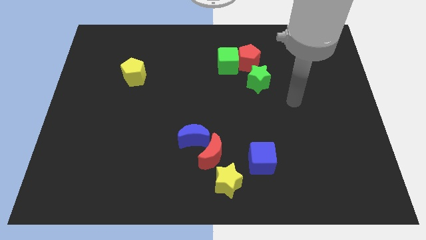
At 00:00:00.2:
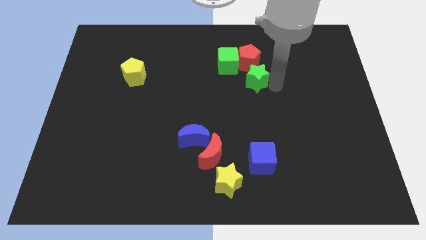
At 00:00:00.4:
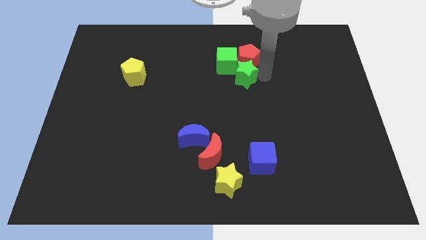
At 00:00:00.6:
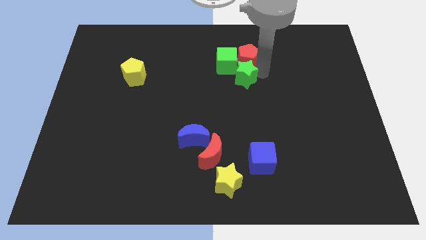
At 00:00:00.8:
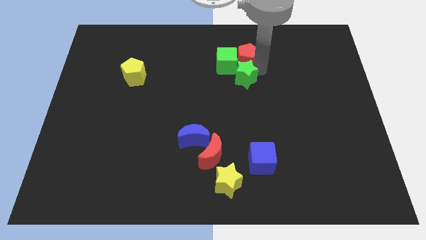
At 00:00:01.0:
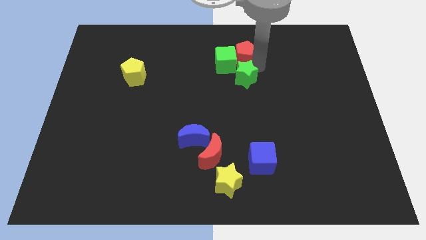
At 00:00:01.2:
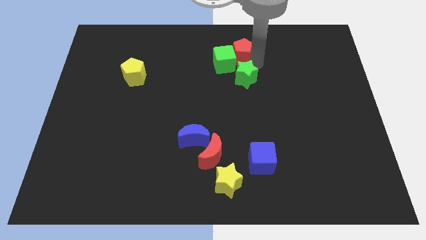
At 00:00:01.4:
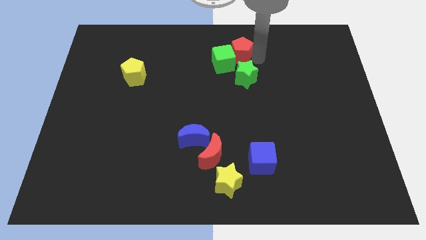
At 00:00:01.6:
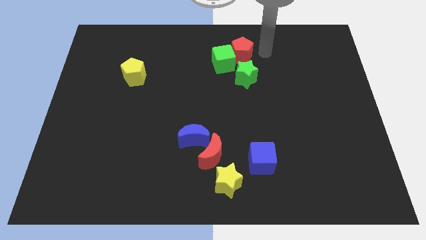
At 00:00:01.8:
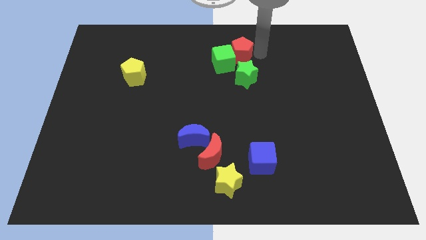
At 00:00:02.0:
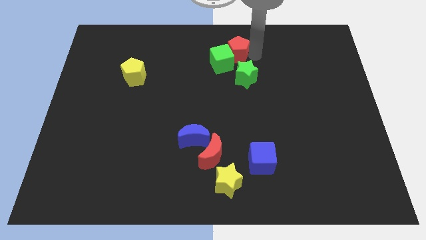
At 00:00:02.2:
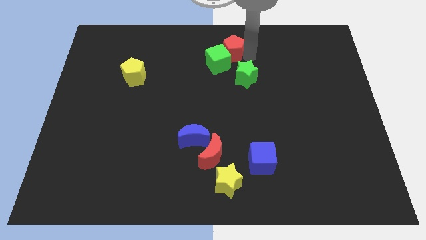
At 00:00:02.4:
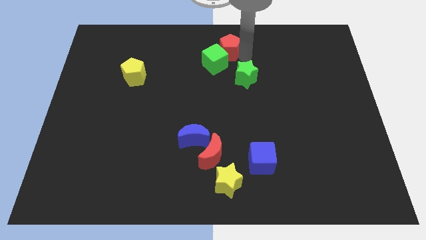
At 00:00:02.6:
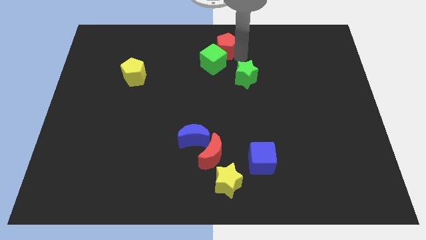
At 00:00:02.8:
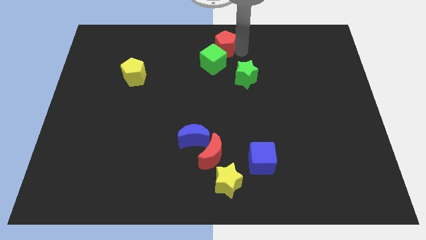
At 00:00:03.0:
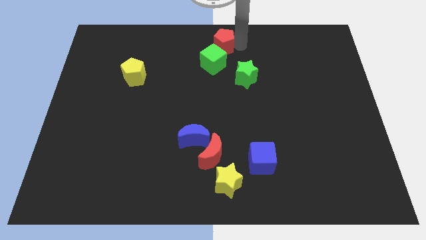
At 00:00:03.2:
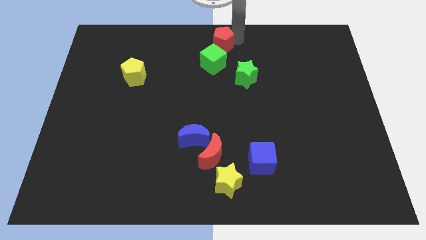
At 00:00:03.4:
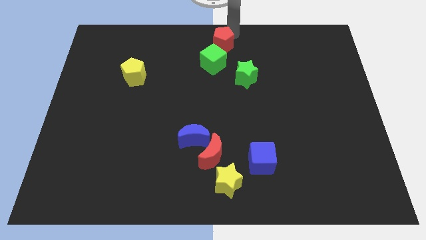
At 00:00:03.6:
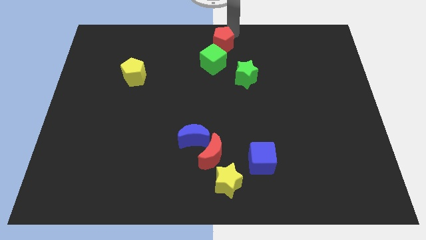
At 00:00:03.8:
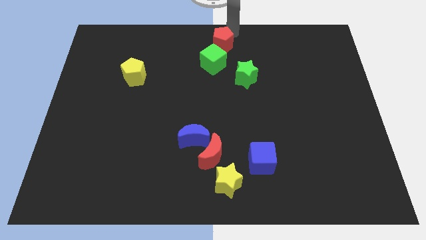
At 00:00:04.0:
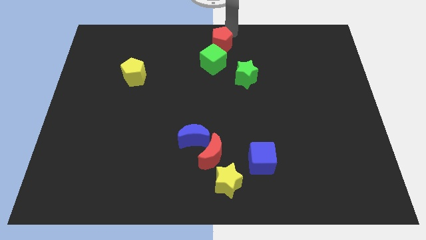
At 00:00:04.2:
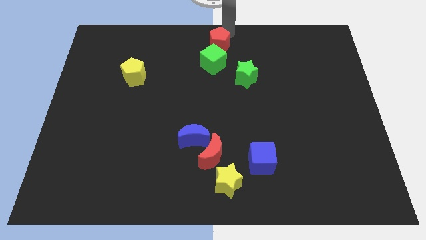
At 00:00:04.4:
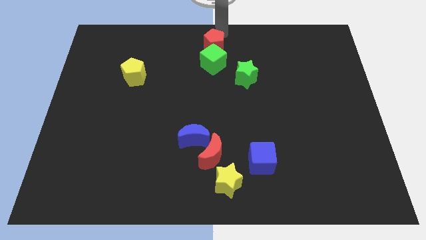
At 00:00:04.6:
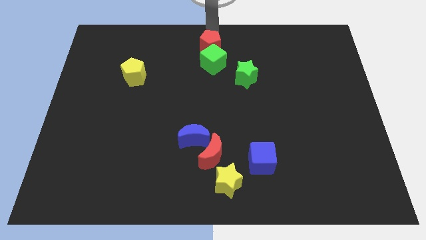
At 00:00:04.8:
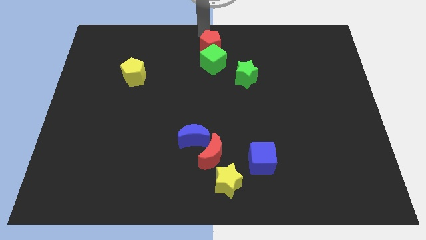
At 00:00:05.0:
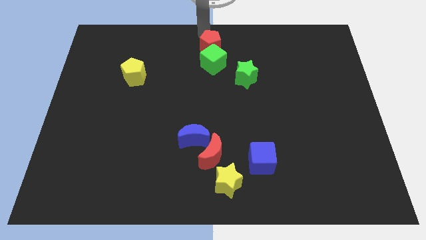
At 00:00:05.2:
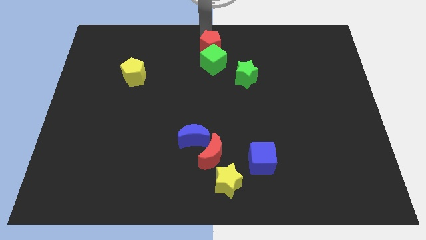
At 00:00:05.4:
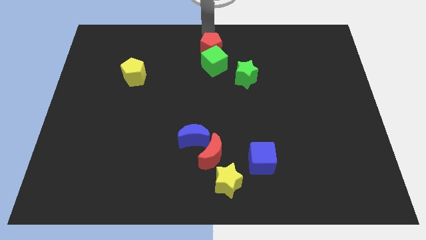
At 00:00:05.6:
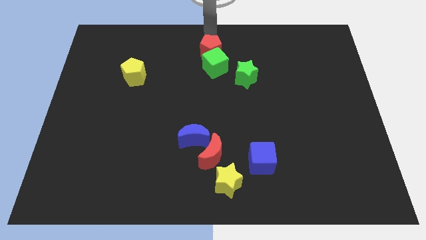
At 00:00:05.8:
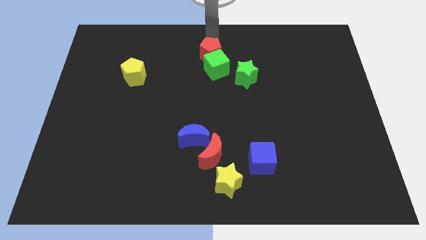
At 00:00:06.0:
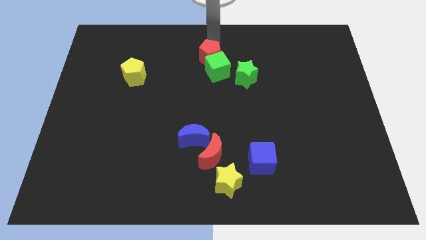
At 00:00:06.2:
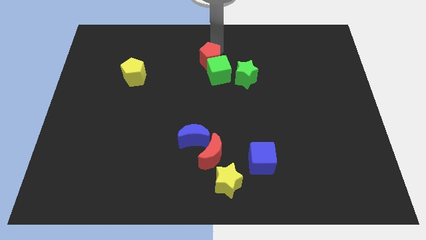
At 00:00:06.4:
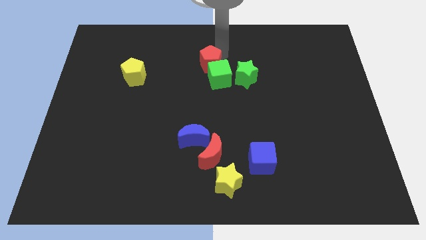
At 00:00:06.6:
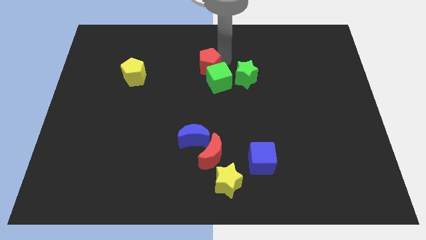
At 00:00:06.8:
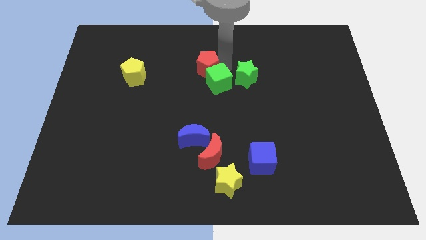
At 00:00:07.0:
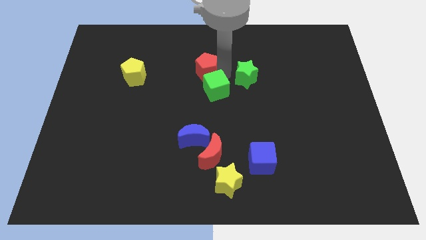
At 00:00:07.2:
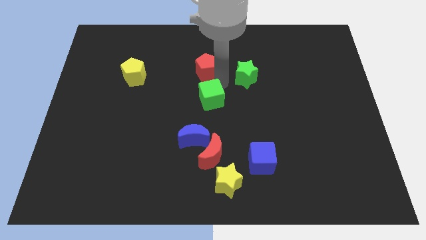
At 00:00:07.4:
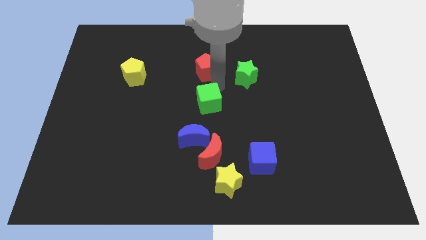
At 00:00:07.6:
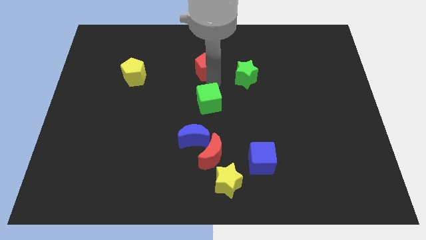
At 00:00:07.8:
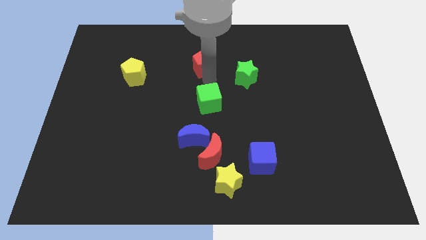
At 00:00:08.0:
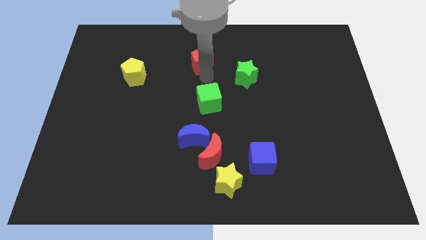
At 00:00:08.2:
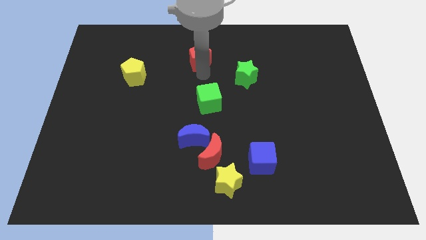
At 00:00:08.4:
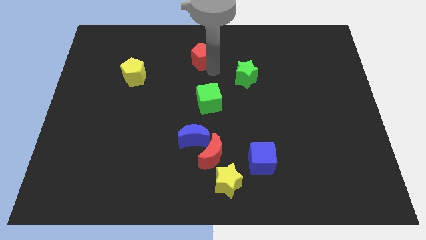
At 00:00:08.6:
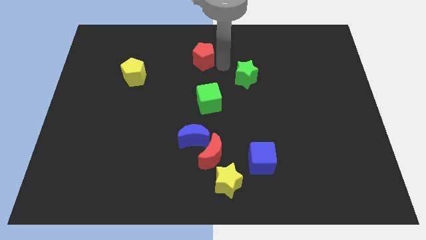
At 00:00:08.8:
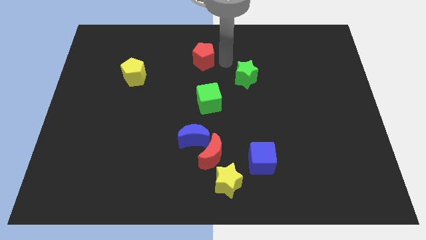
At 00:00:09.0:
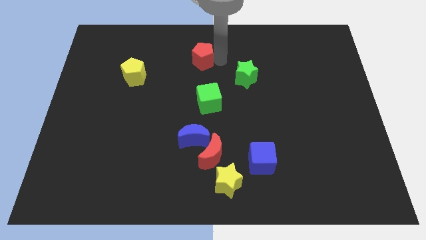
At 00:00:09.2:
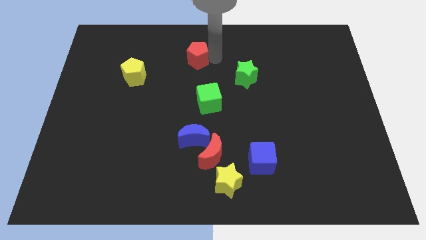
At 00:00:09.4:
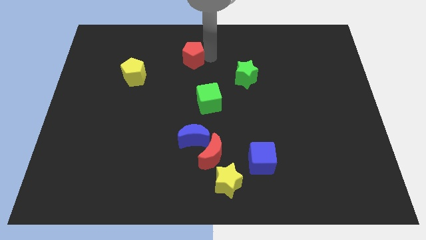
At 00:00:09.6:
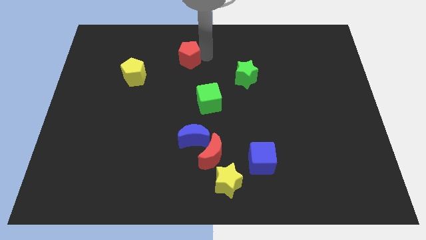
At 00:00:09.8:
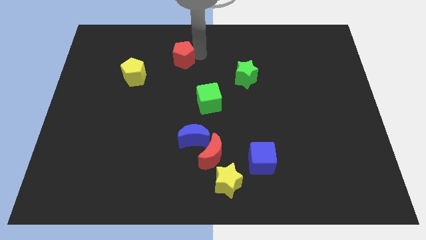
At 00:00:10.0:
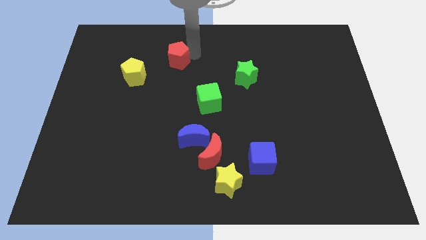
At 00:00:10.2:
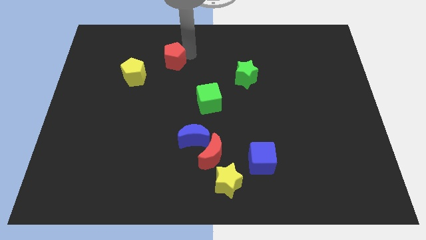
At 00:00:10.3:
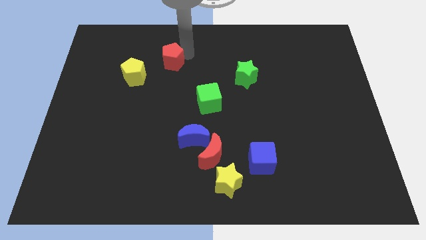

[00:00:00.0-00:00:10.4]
move the red pentagon left

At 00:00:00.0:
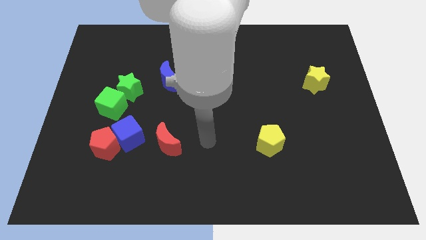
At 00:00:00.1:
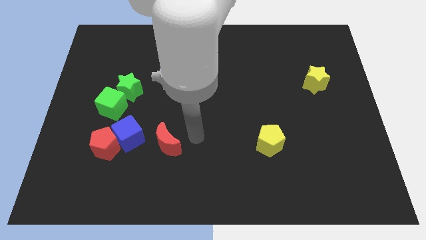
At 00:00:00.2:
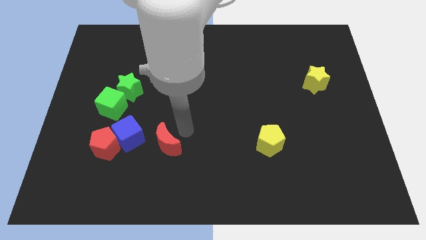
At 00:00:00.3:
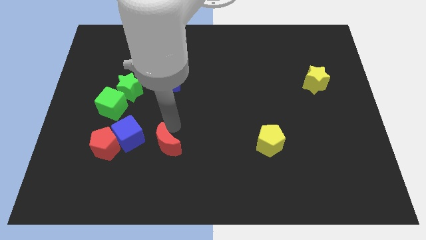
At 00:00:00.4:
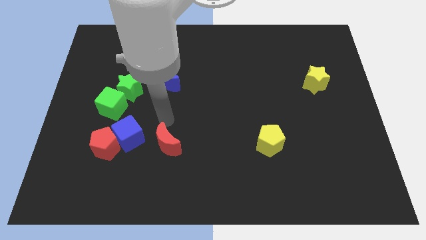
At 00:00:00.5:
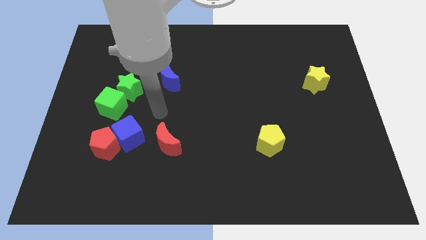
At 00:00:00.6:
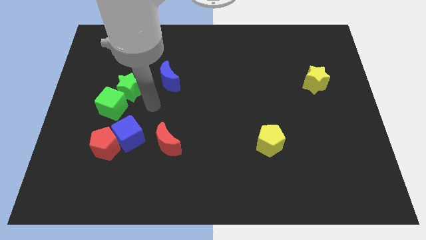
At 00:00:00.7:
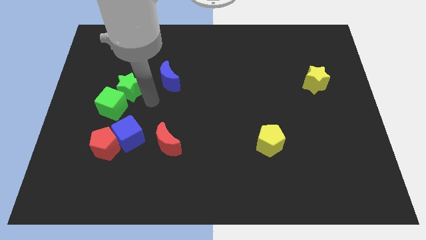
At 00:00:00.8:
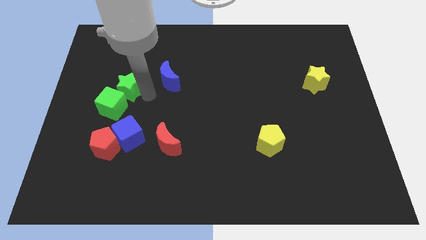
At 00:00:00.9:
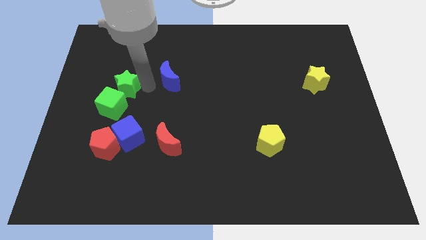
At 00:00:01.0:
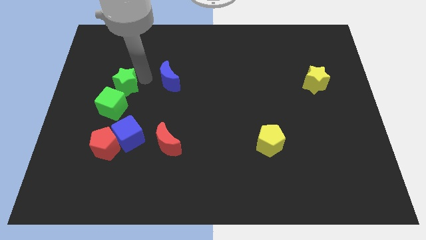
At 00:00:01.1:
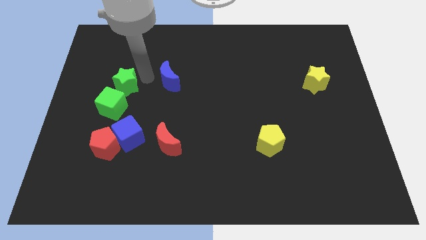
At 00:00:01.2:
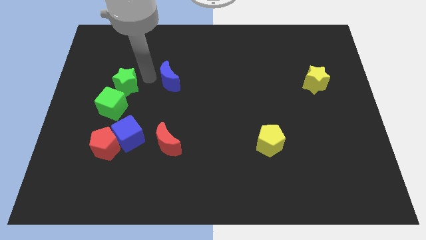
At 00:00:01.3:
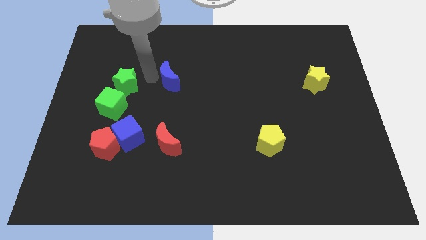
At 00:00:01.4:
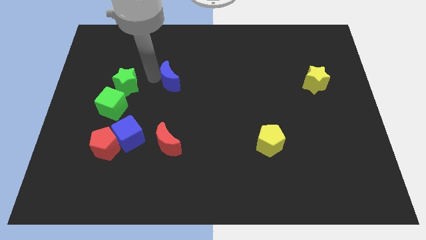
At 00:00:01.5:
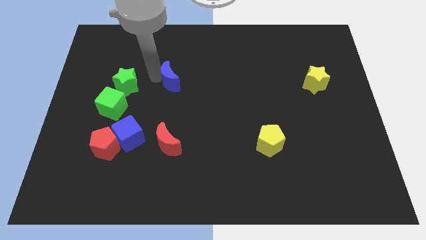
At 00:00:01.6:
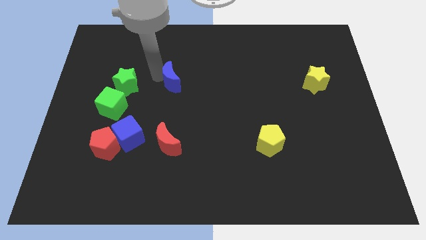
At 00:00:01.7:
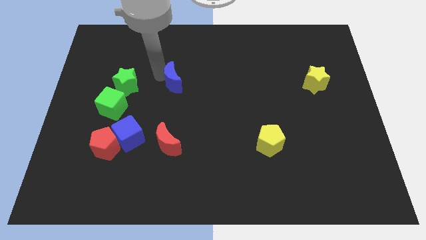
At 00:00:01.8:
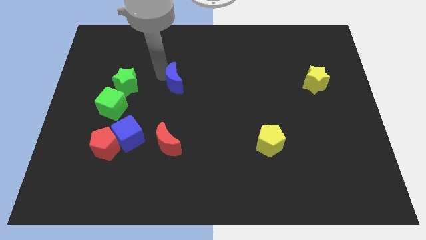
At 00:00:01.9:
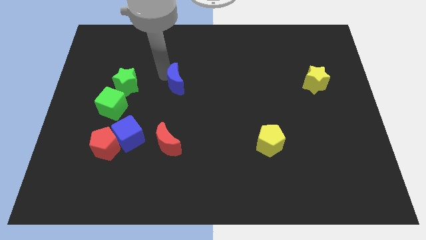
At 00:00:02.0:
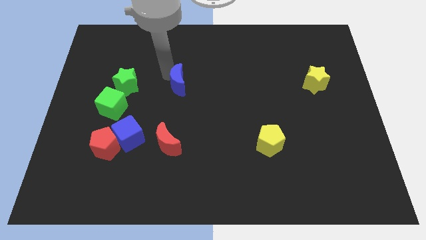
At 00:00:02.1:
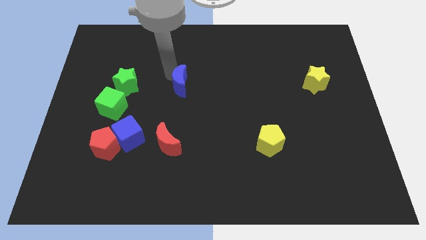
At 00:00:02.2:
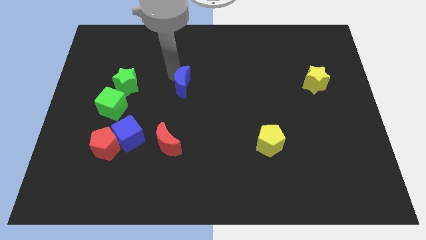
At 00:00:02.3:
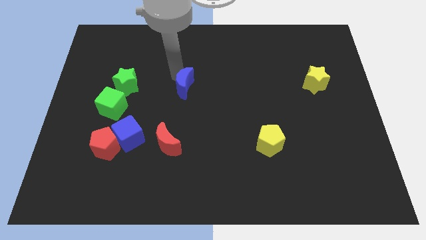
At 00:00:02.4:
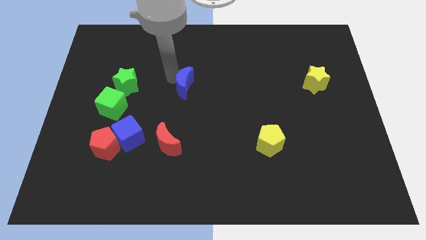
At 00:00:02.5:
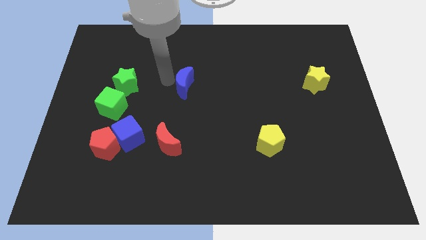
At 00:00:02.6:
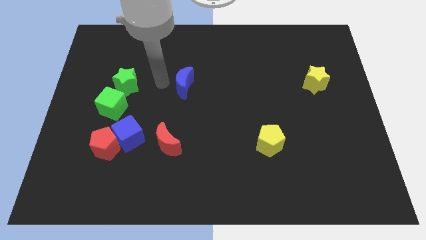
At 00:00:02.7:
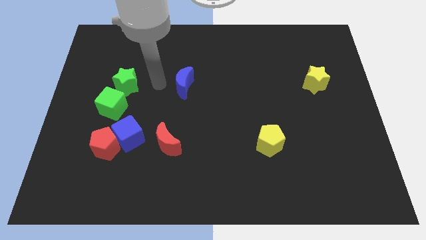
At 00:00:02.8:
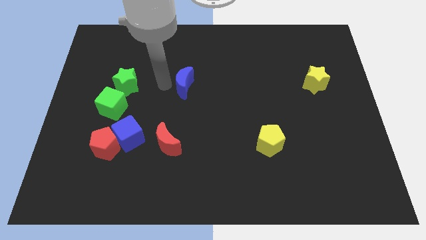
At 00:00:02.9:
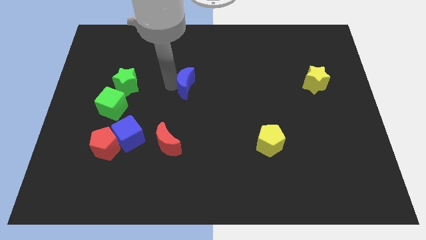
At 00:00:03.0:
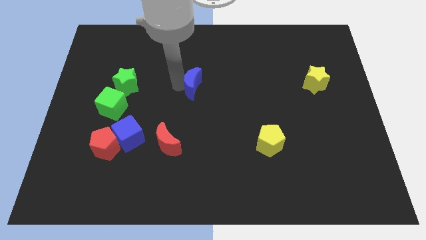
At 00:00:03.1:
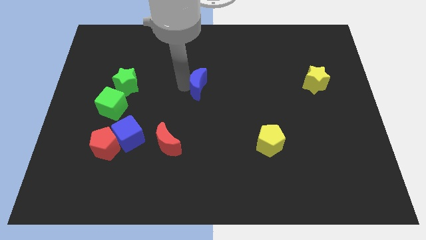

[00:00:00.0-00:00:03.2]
push the blue moon a bit to the right
